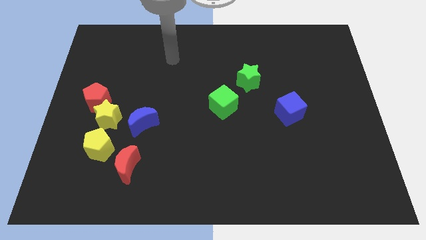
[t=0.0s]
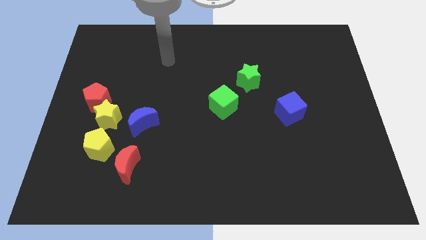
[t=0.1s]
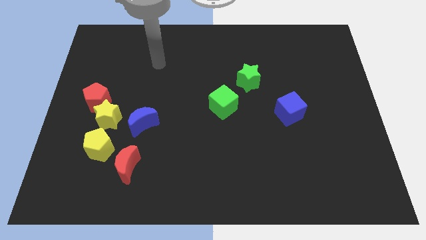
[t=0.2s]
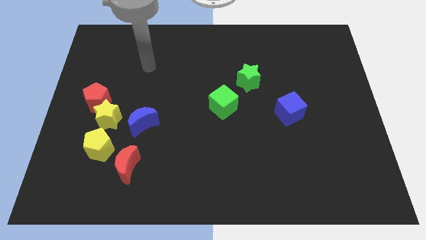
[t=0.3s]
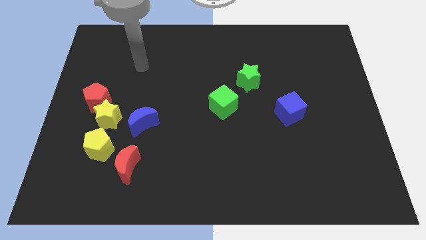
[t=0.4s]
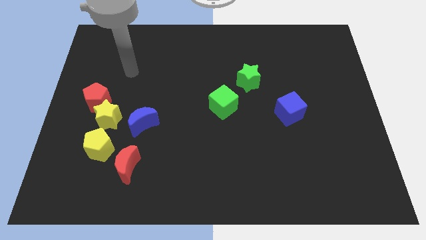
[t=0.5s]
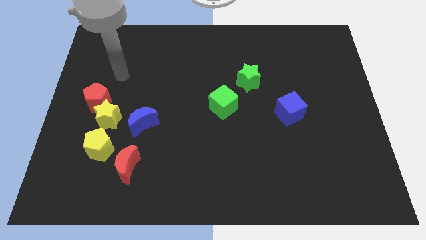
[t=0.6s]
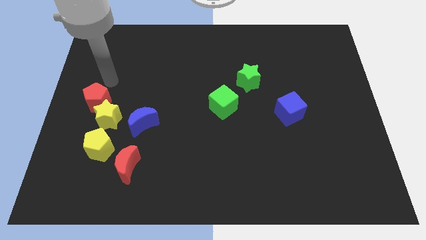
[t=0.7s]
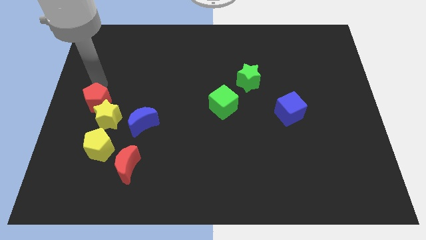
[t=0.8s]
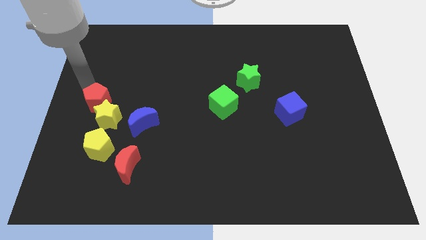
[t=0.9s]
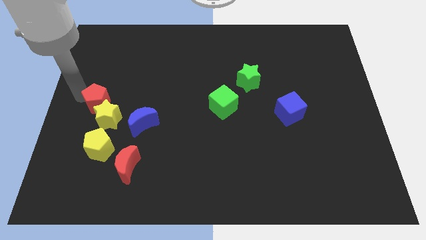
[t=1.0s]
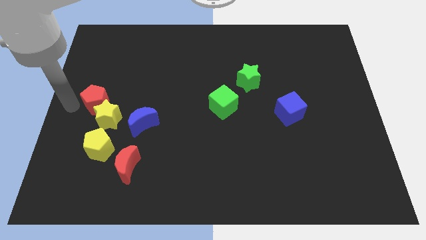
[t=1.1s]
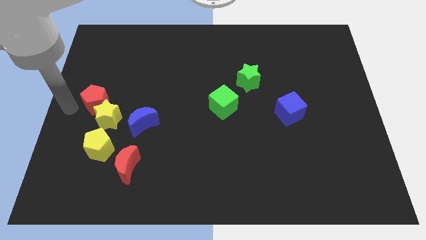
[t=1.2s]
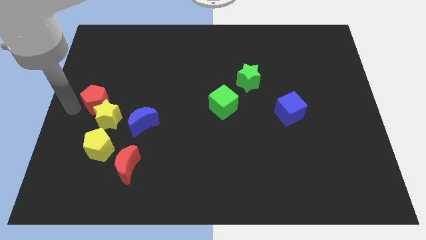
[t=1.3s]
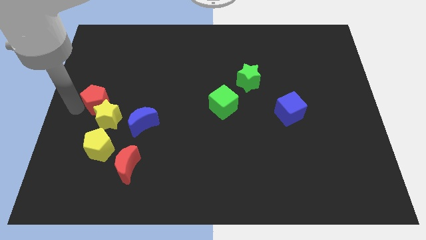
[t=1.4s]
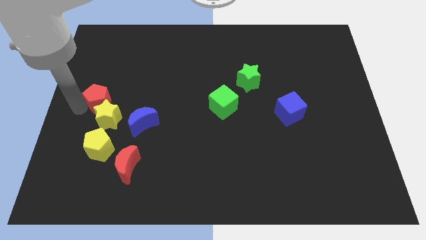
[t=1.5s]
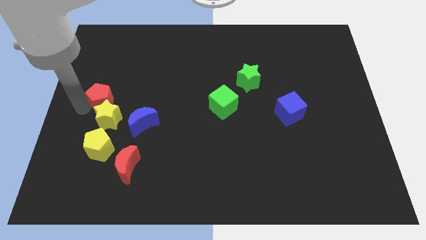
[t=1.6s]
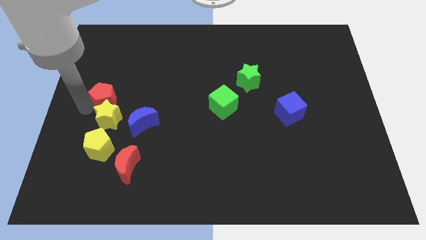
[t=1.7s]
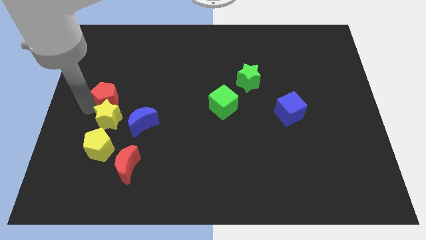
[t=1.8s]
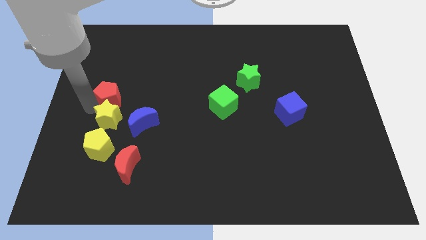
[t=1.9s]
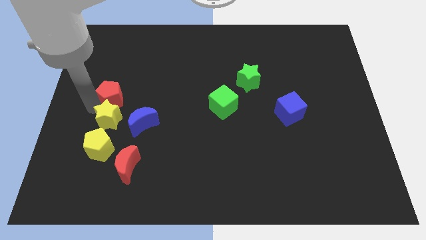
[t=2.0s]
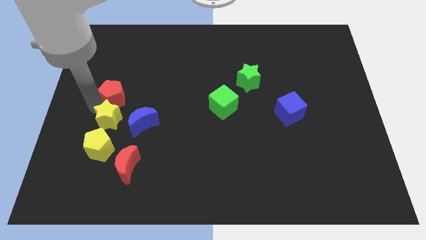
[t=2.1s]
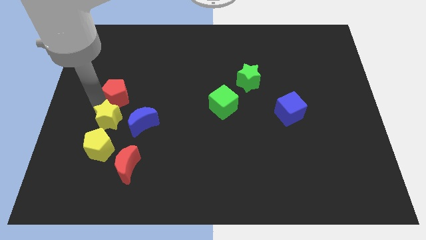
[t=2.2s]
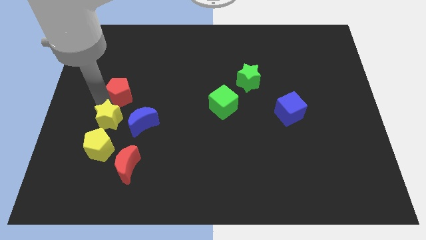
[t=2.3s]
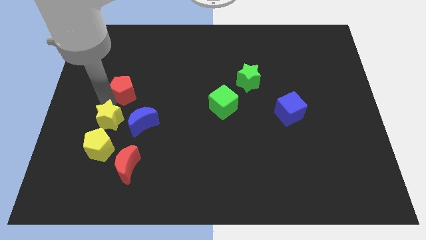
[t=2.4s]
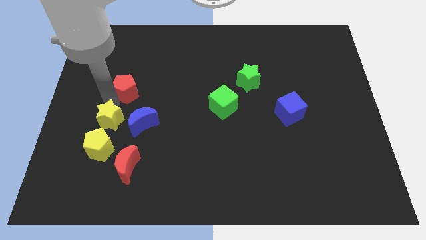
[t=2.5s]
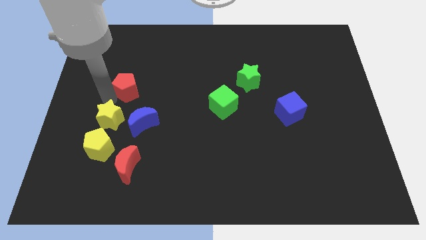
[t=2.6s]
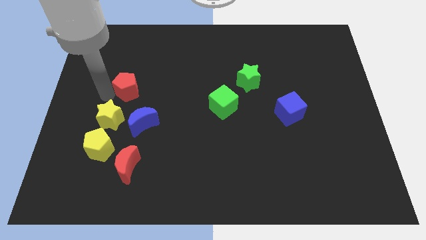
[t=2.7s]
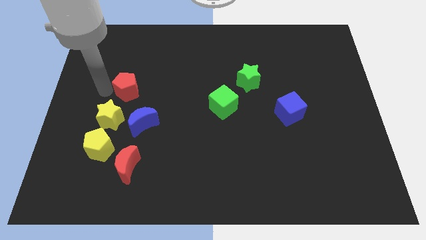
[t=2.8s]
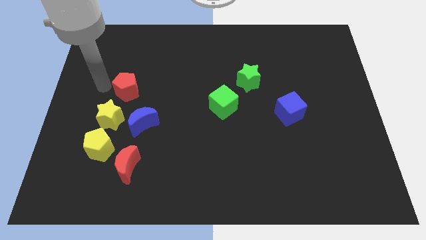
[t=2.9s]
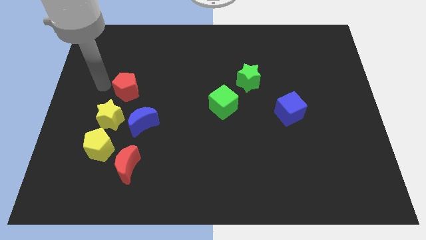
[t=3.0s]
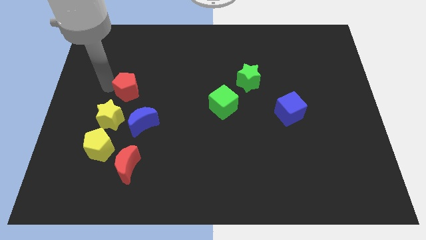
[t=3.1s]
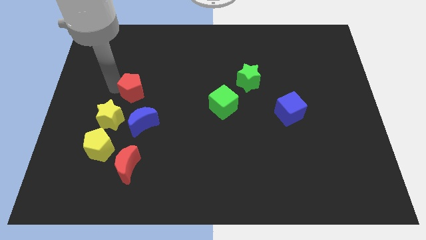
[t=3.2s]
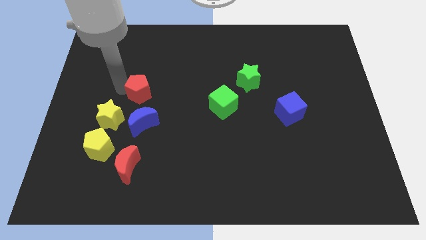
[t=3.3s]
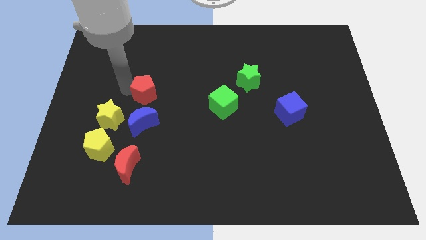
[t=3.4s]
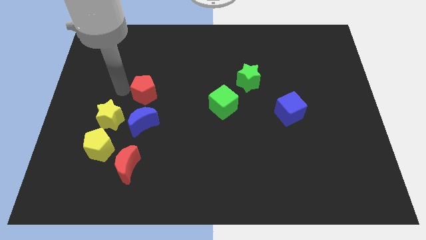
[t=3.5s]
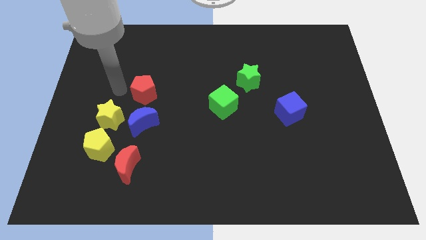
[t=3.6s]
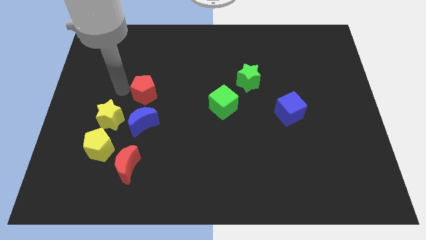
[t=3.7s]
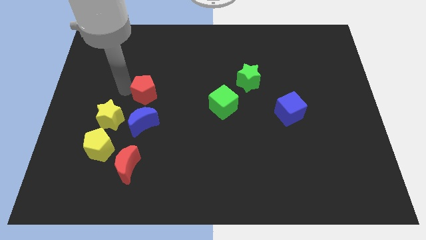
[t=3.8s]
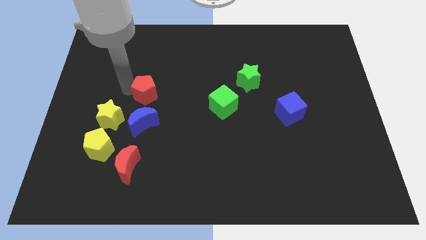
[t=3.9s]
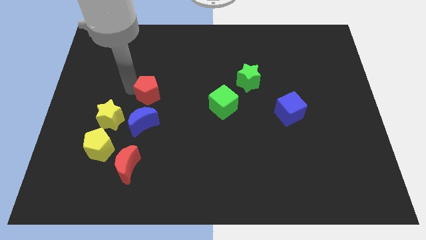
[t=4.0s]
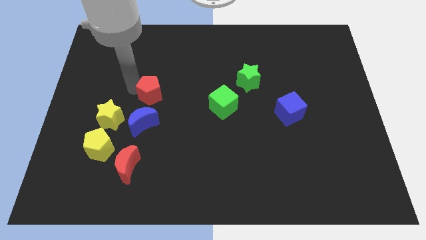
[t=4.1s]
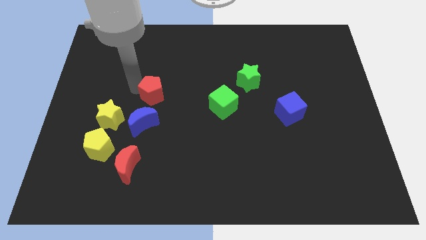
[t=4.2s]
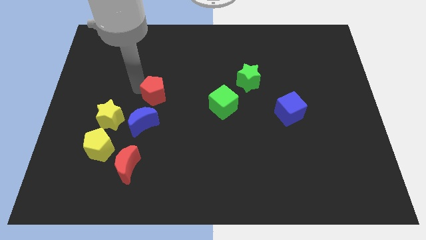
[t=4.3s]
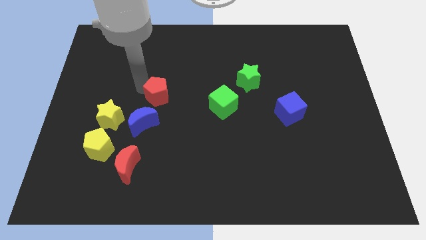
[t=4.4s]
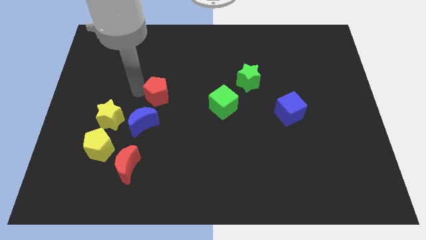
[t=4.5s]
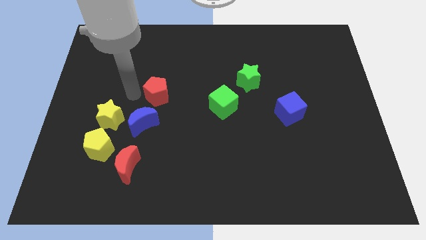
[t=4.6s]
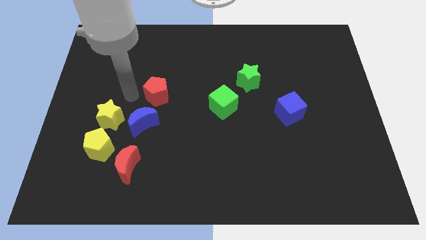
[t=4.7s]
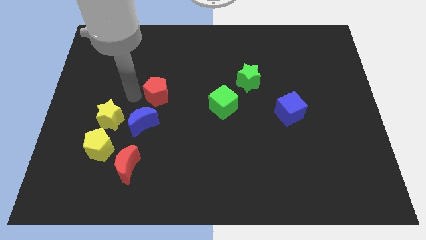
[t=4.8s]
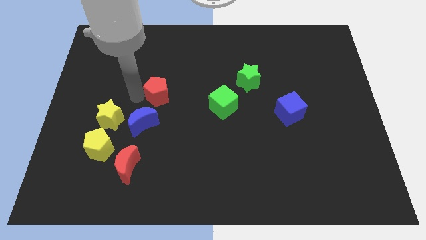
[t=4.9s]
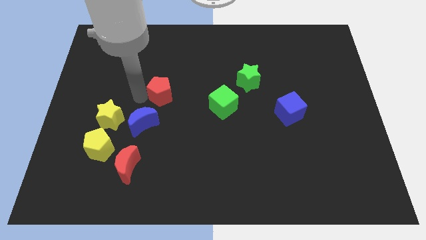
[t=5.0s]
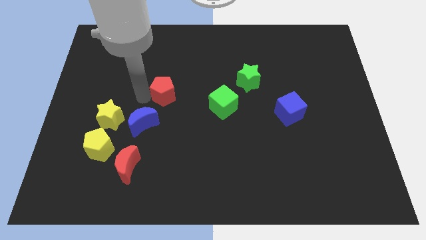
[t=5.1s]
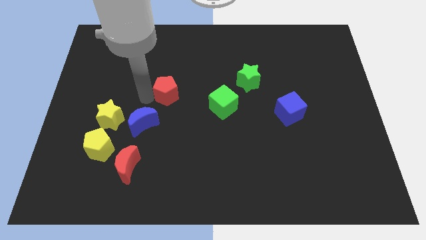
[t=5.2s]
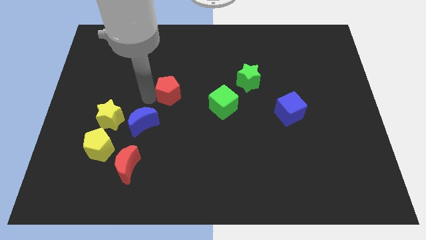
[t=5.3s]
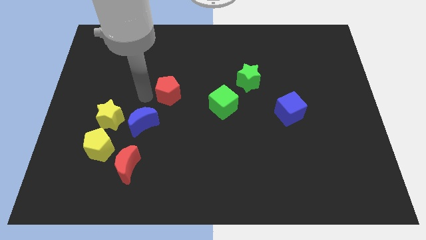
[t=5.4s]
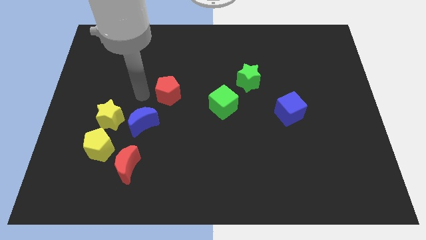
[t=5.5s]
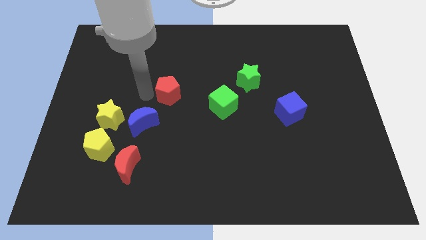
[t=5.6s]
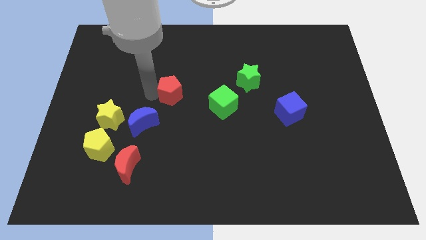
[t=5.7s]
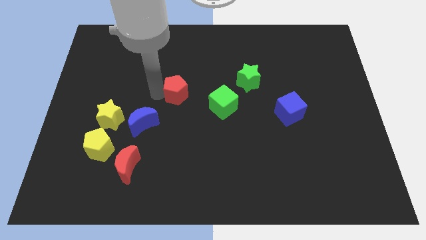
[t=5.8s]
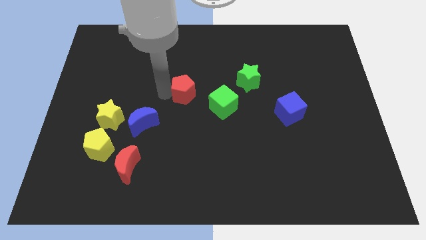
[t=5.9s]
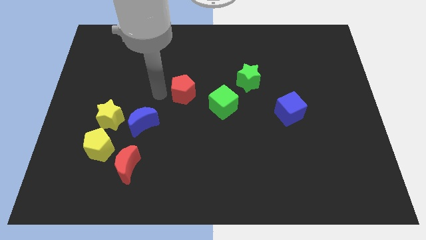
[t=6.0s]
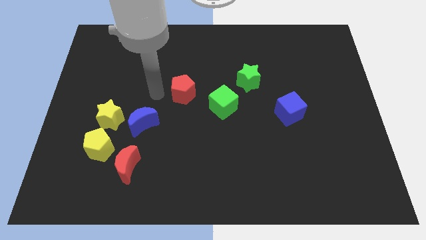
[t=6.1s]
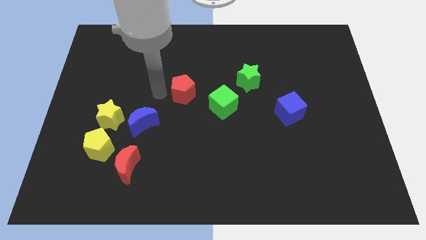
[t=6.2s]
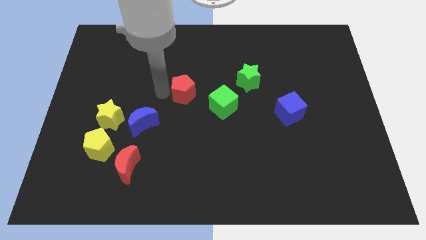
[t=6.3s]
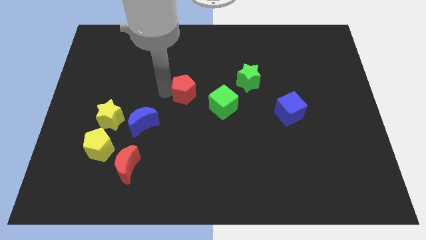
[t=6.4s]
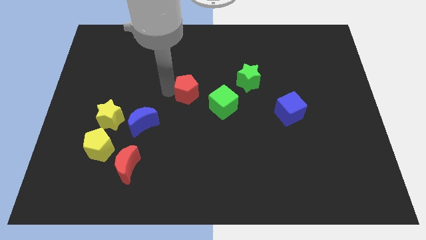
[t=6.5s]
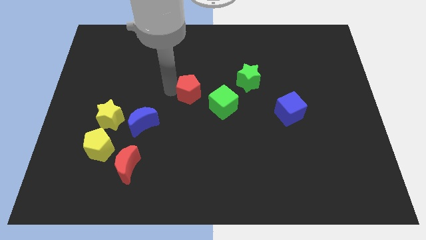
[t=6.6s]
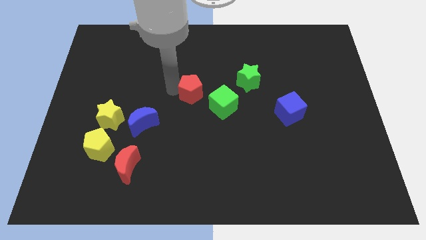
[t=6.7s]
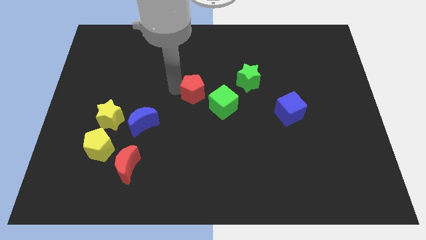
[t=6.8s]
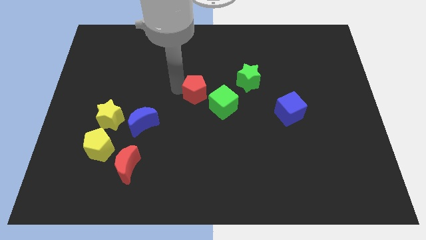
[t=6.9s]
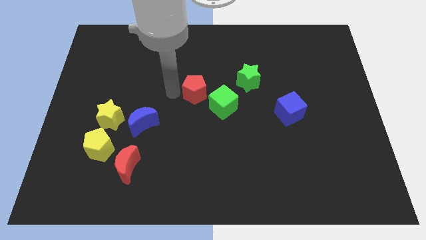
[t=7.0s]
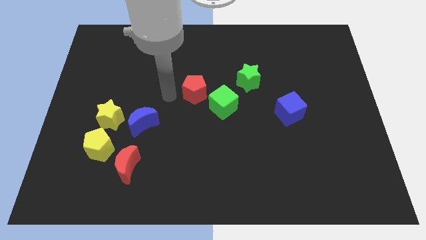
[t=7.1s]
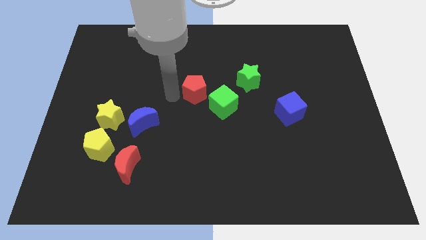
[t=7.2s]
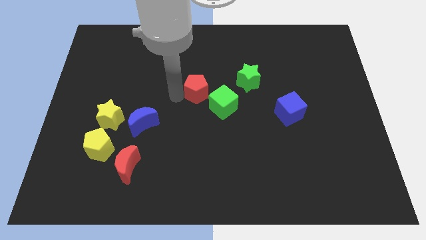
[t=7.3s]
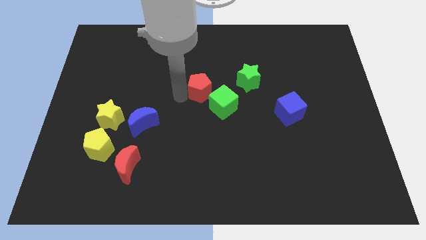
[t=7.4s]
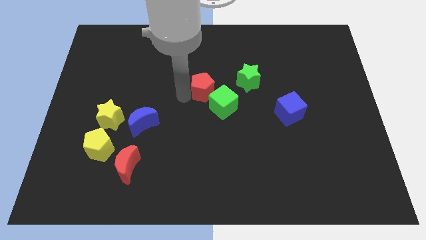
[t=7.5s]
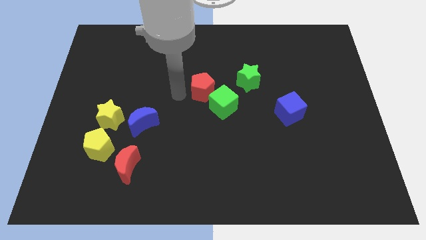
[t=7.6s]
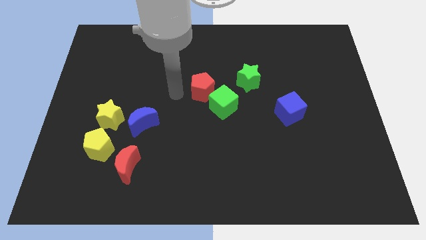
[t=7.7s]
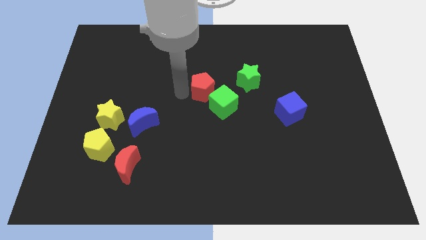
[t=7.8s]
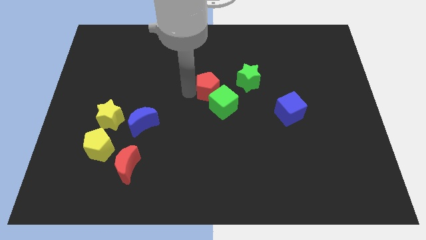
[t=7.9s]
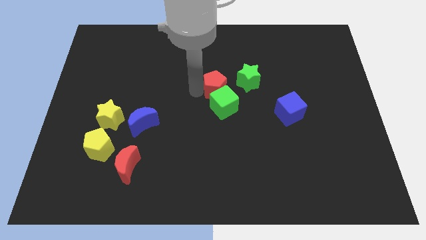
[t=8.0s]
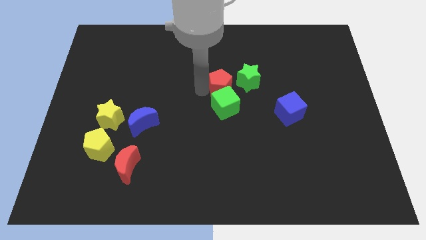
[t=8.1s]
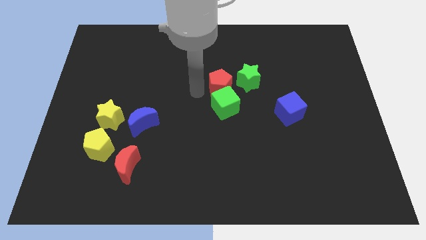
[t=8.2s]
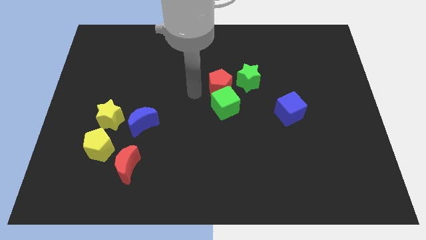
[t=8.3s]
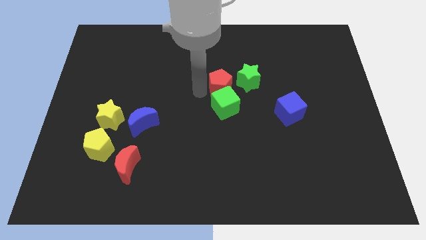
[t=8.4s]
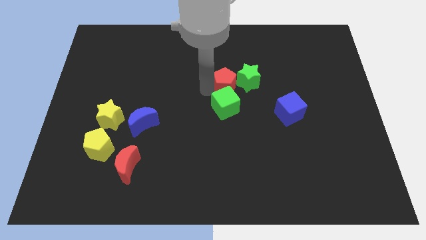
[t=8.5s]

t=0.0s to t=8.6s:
slide the red pentagon close to the green star
